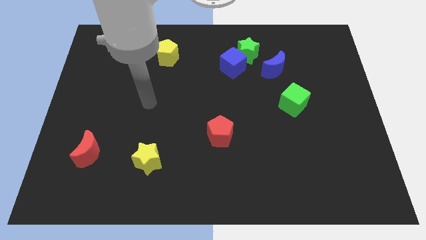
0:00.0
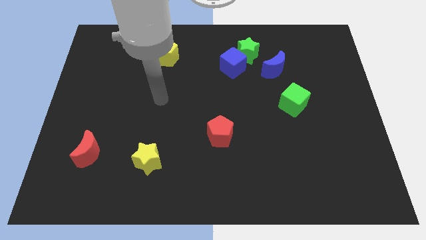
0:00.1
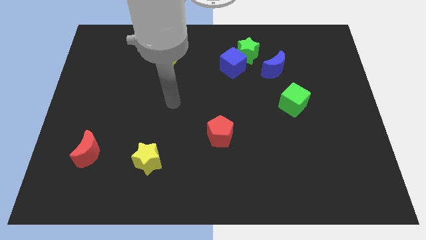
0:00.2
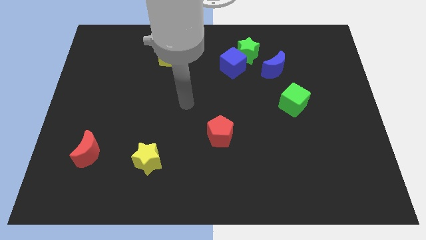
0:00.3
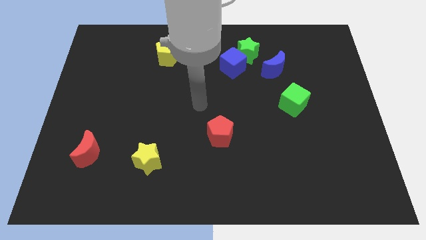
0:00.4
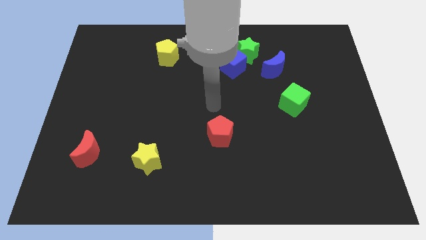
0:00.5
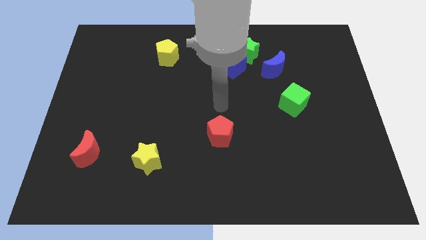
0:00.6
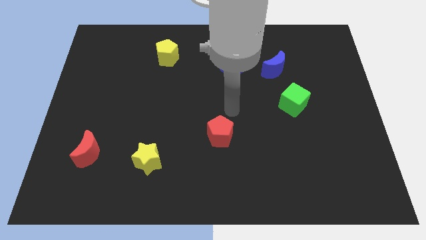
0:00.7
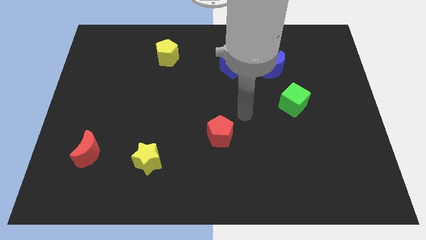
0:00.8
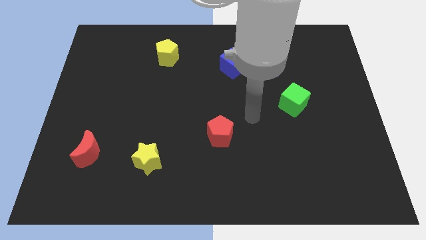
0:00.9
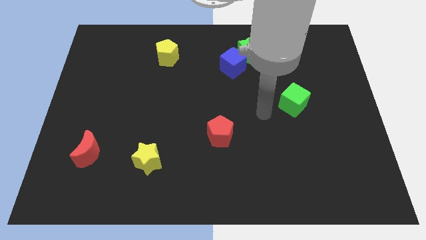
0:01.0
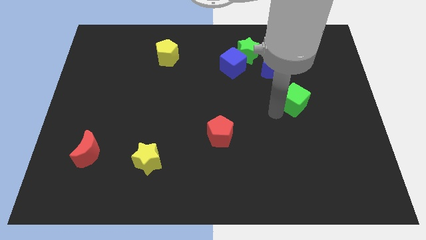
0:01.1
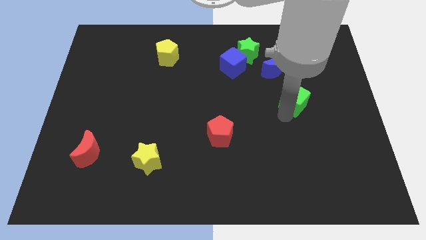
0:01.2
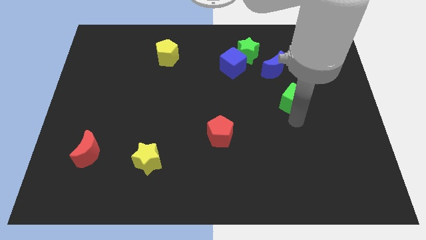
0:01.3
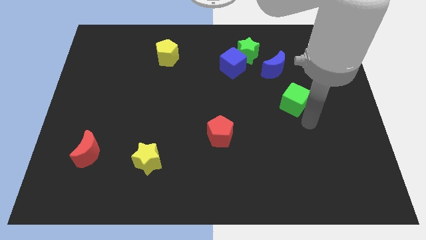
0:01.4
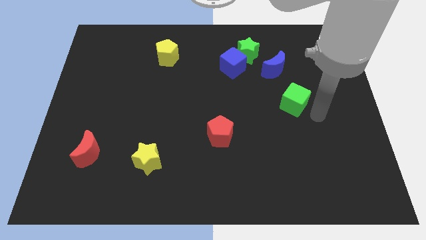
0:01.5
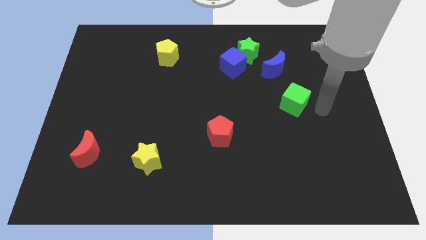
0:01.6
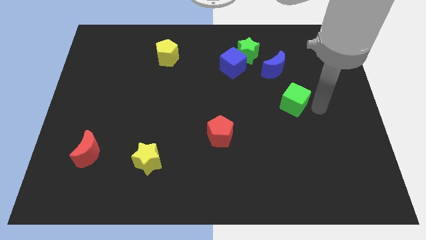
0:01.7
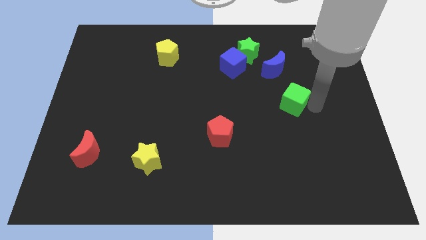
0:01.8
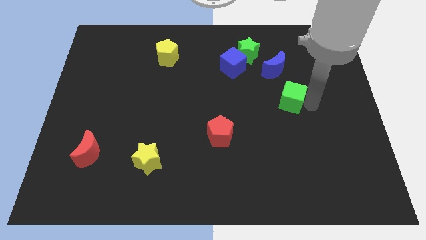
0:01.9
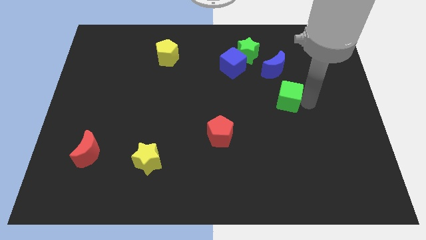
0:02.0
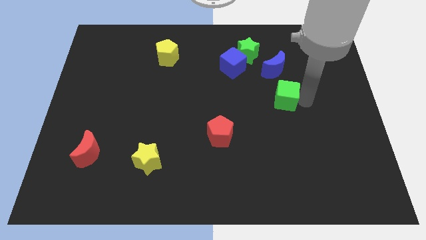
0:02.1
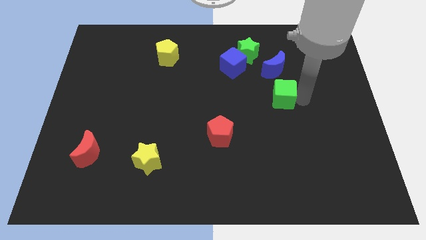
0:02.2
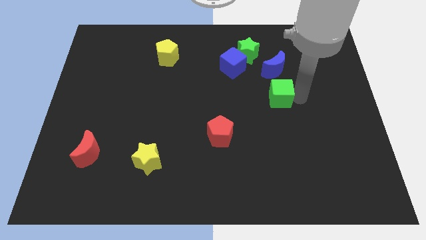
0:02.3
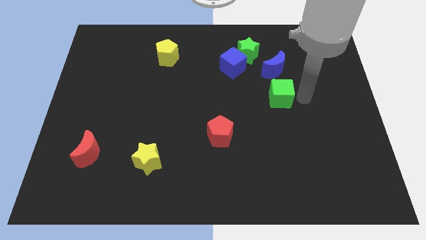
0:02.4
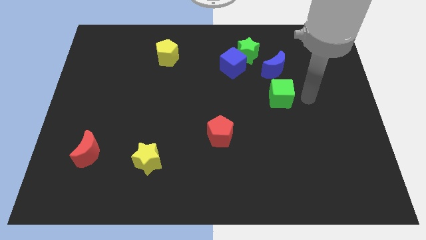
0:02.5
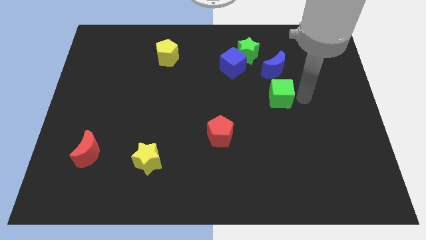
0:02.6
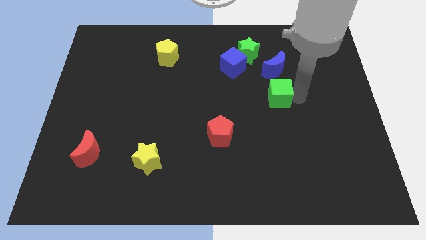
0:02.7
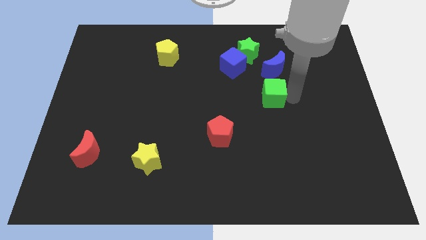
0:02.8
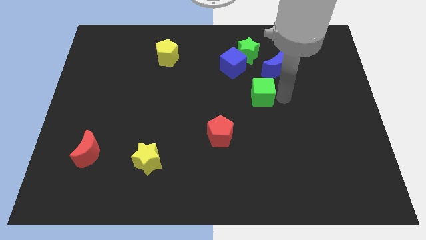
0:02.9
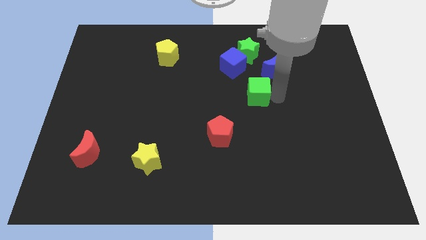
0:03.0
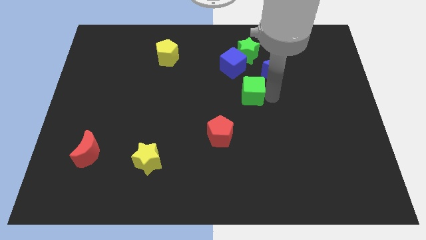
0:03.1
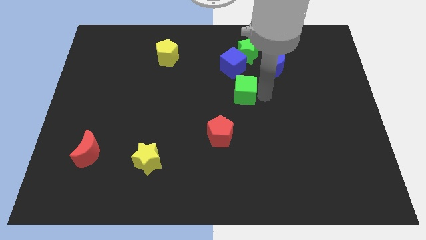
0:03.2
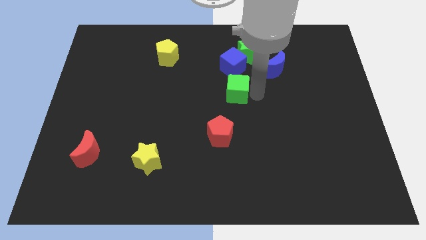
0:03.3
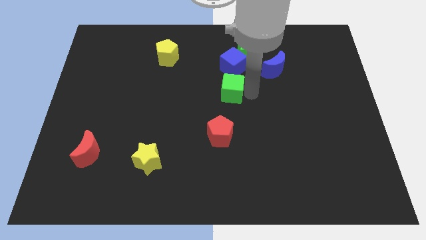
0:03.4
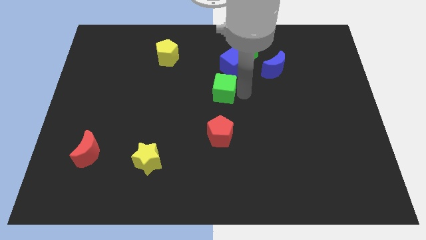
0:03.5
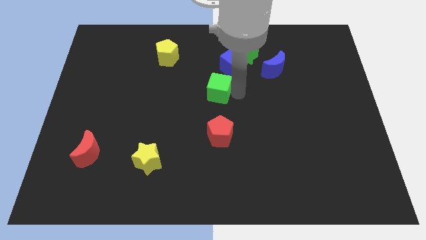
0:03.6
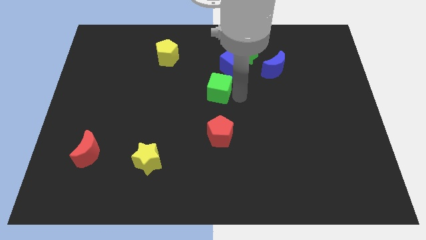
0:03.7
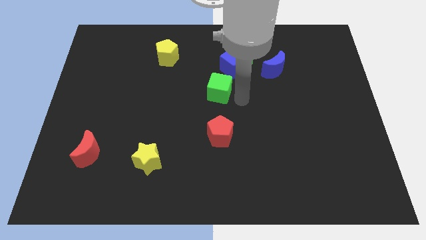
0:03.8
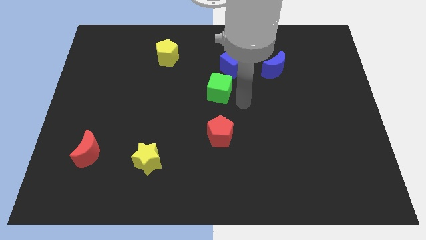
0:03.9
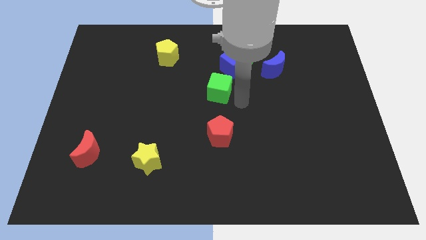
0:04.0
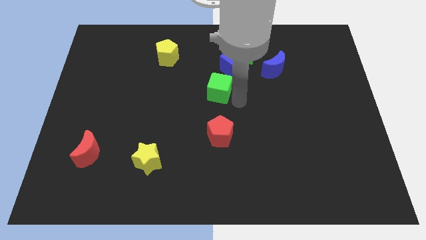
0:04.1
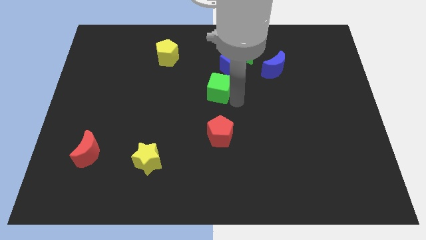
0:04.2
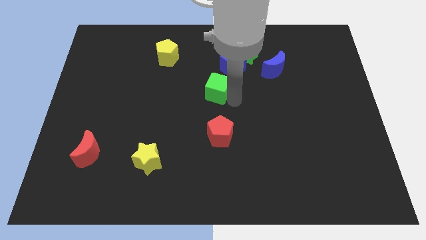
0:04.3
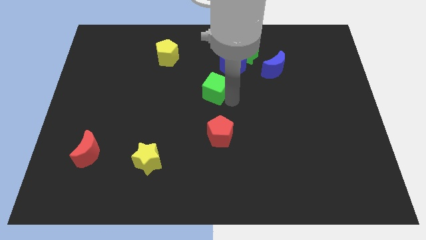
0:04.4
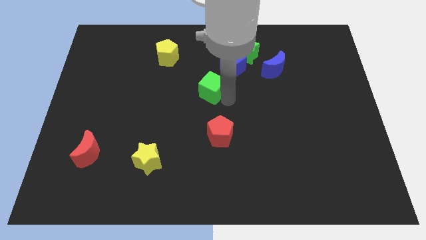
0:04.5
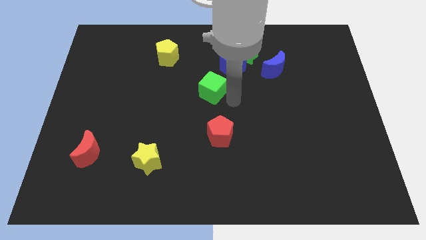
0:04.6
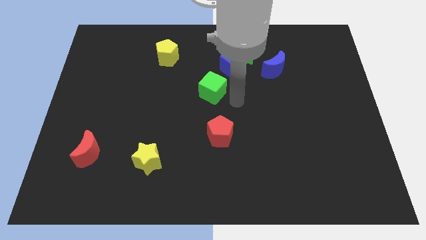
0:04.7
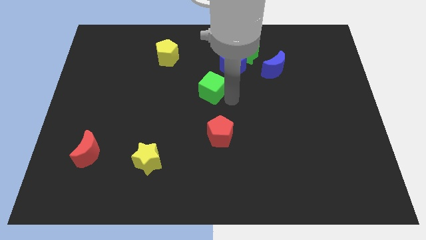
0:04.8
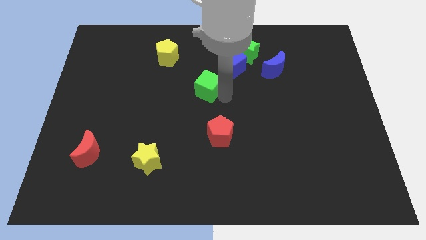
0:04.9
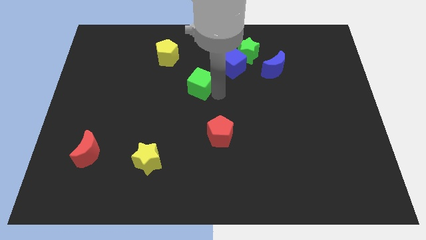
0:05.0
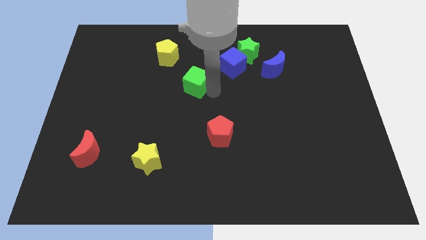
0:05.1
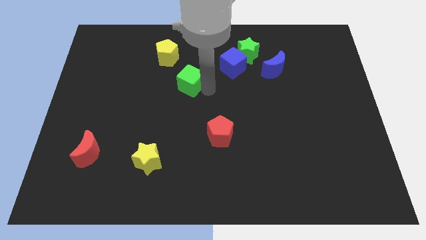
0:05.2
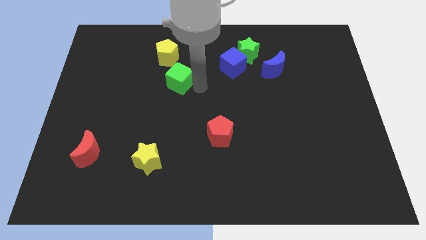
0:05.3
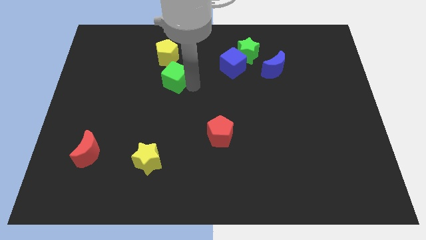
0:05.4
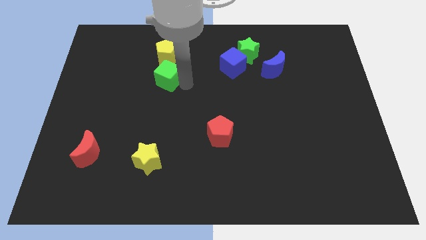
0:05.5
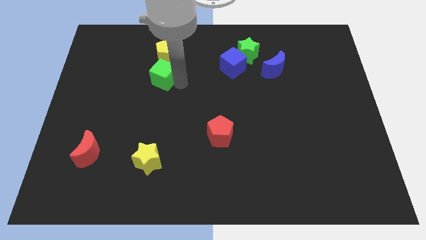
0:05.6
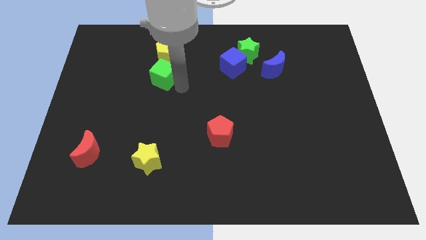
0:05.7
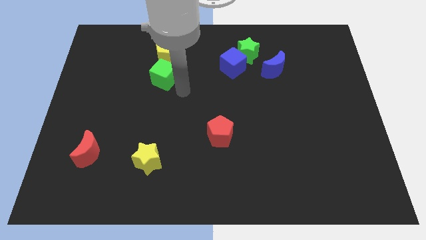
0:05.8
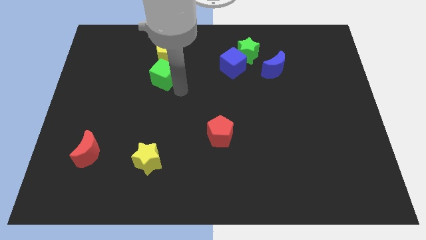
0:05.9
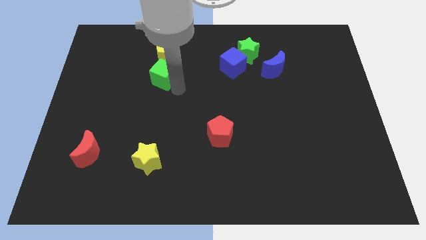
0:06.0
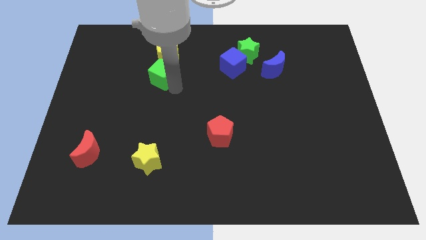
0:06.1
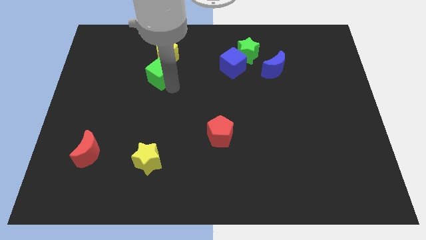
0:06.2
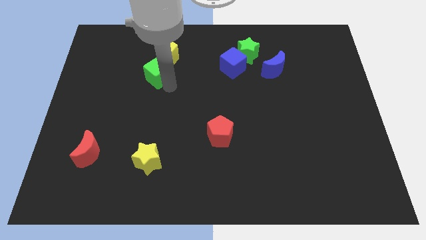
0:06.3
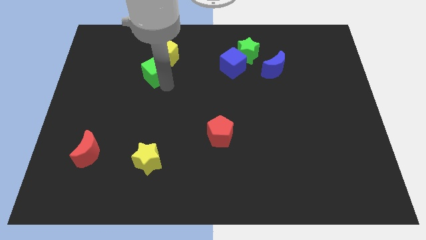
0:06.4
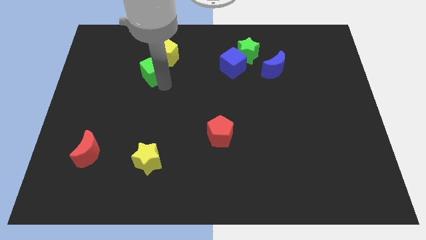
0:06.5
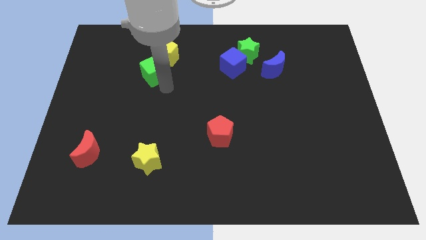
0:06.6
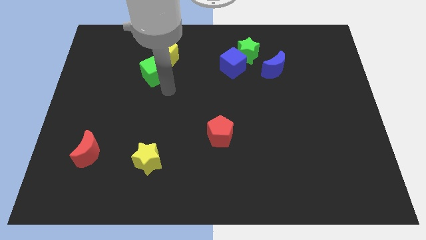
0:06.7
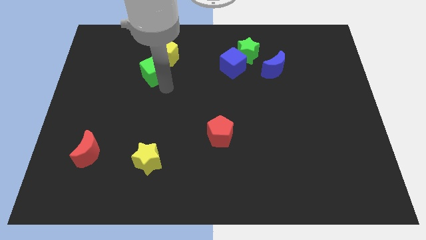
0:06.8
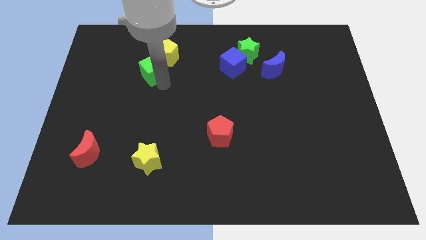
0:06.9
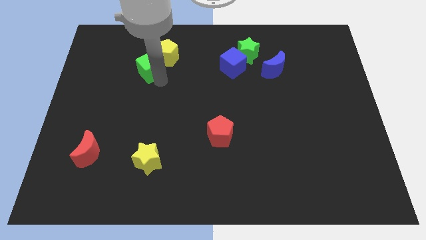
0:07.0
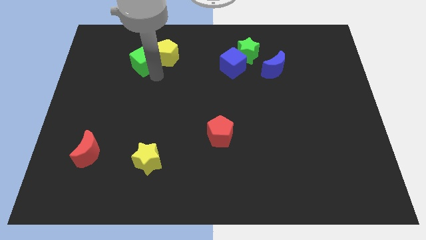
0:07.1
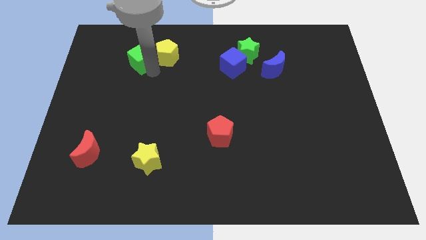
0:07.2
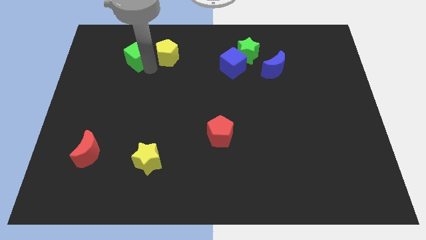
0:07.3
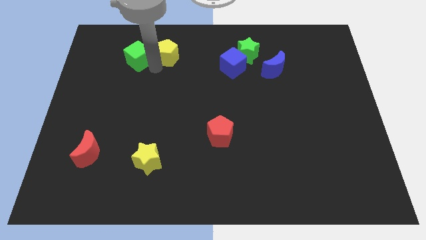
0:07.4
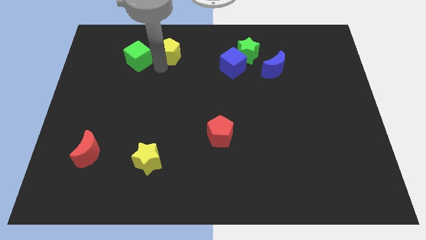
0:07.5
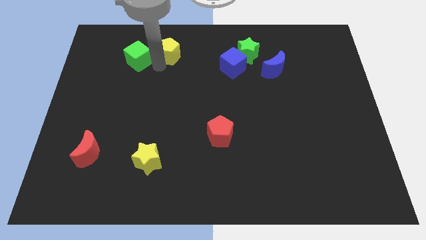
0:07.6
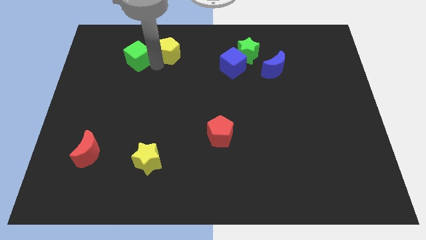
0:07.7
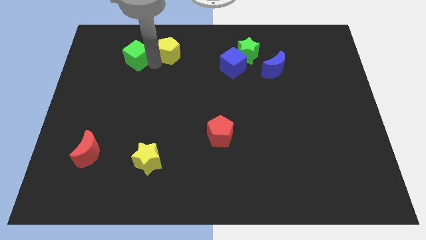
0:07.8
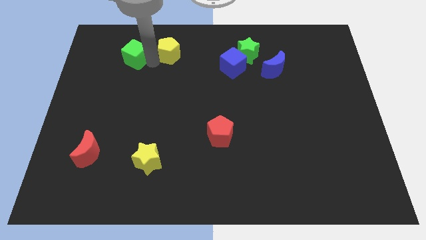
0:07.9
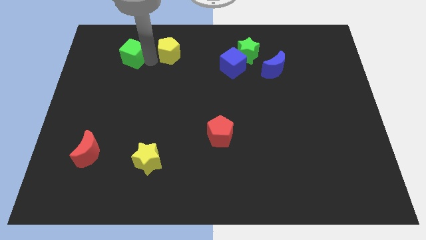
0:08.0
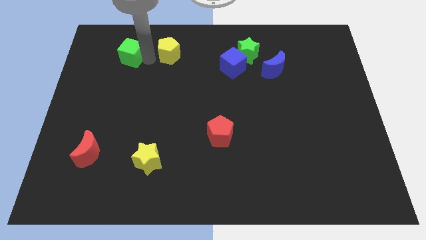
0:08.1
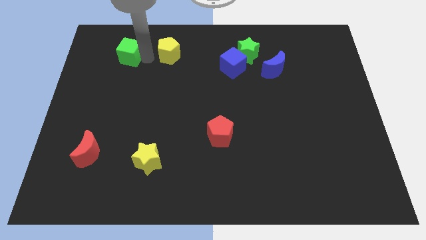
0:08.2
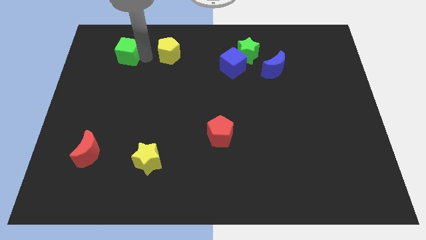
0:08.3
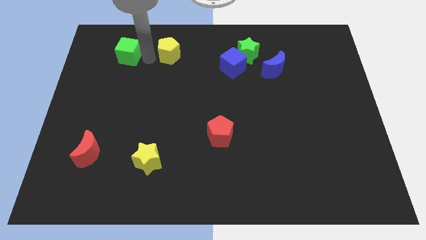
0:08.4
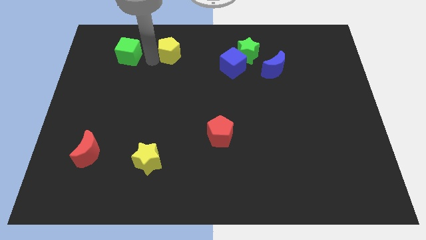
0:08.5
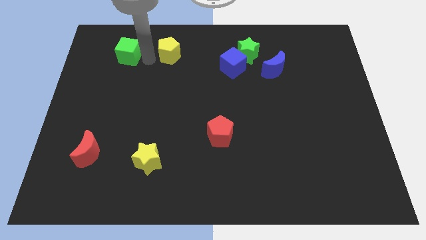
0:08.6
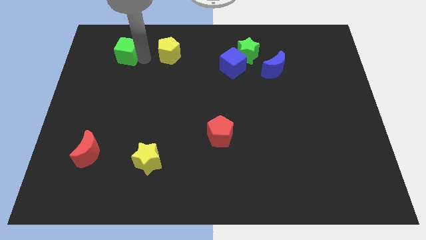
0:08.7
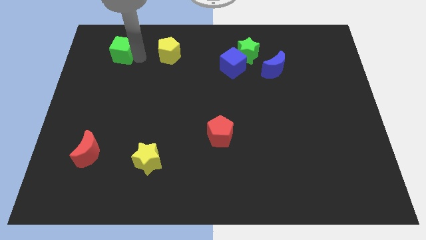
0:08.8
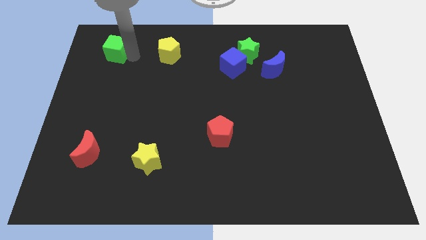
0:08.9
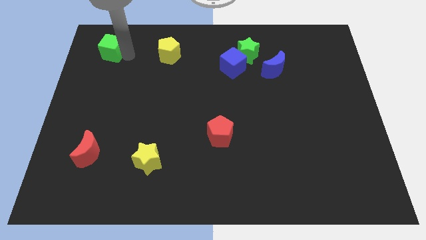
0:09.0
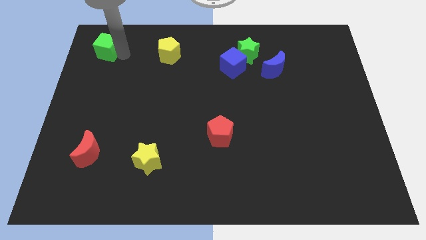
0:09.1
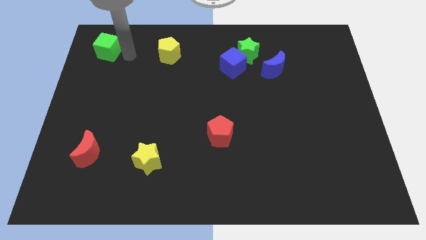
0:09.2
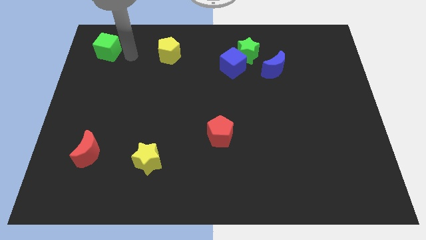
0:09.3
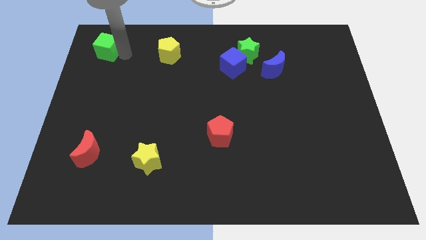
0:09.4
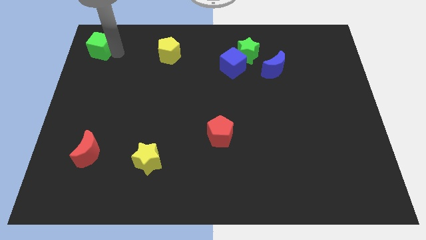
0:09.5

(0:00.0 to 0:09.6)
put the green cube to the upper left corner
